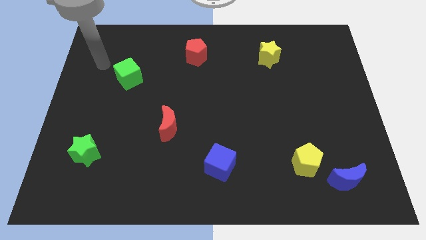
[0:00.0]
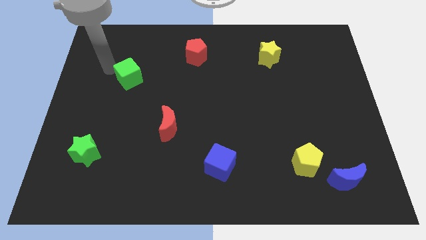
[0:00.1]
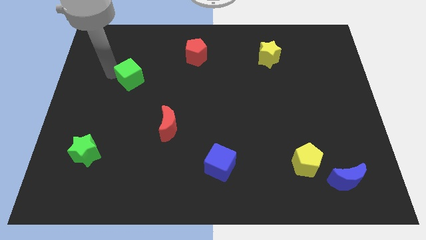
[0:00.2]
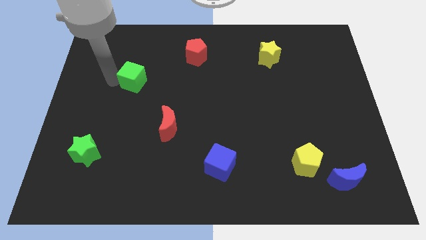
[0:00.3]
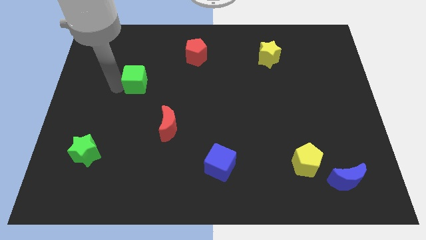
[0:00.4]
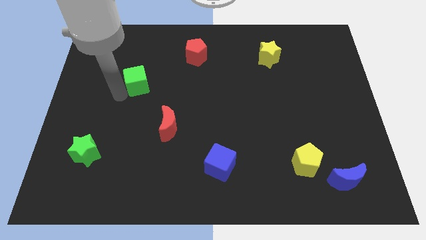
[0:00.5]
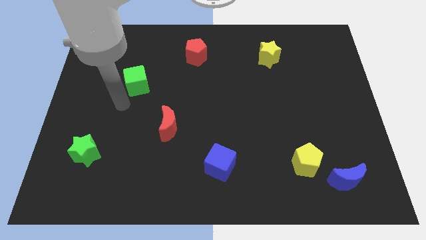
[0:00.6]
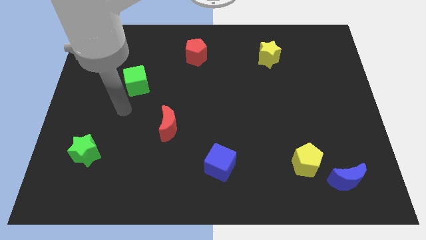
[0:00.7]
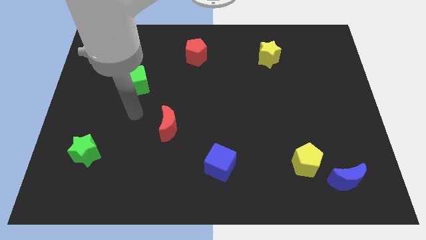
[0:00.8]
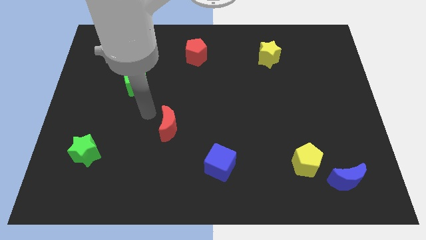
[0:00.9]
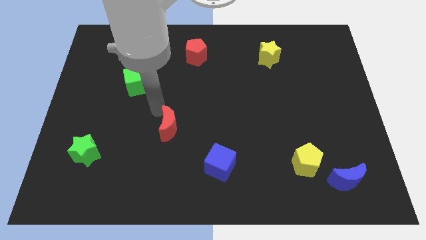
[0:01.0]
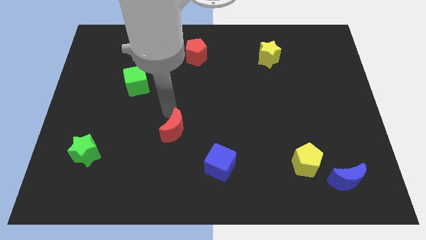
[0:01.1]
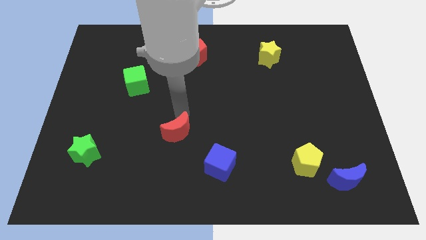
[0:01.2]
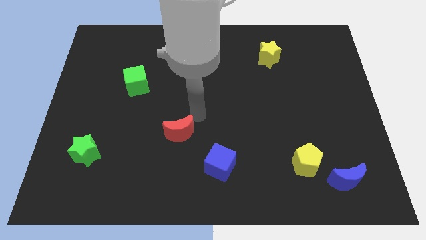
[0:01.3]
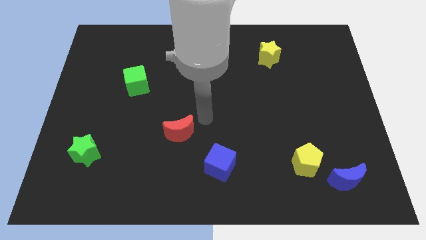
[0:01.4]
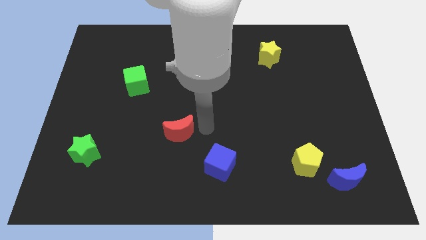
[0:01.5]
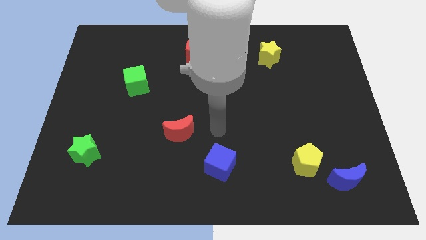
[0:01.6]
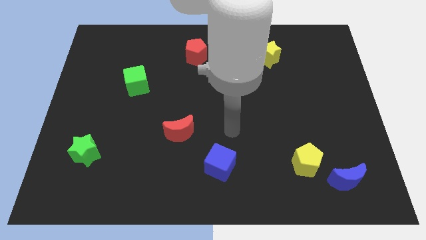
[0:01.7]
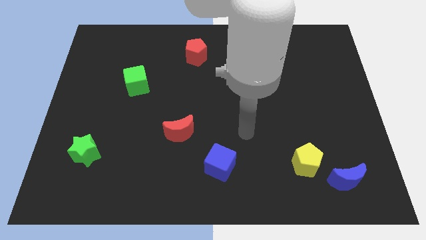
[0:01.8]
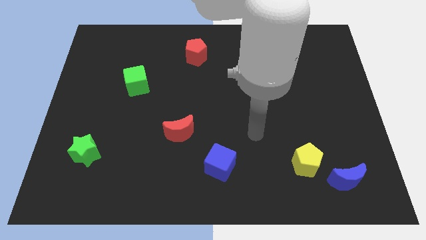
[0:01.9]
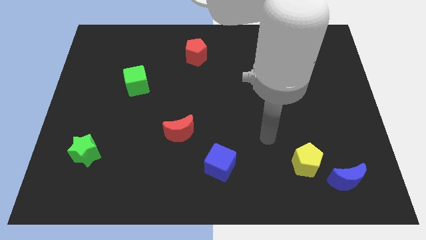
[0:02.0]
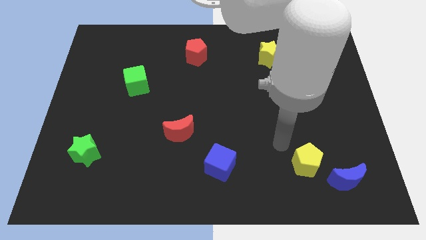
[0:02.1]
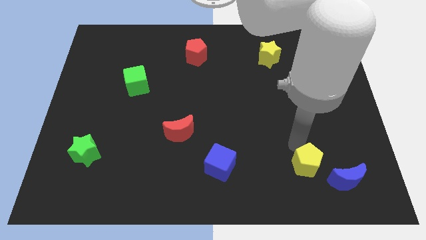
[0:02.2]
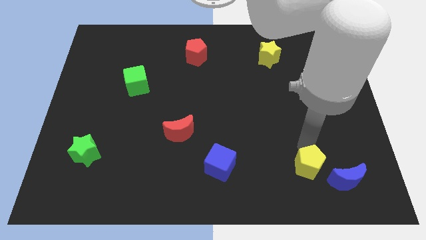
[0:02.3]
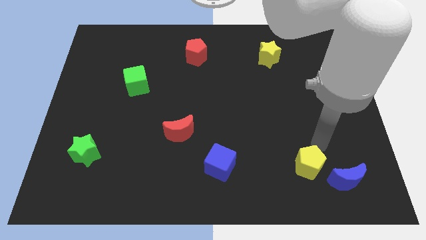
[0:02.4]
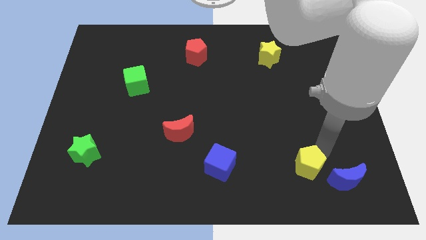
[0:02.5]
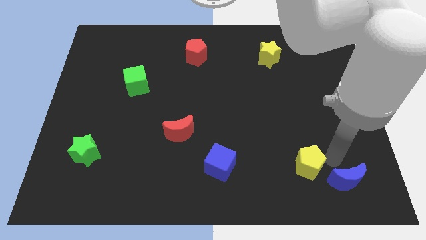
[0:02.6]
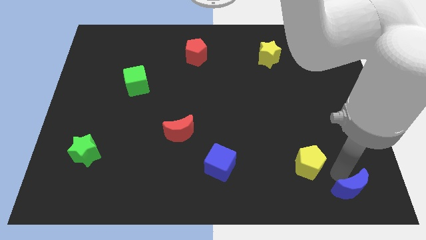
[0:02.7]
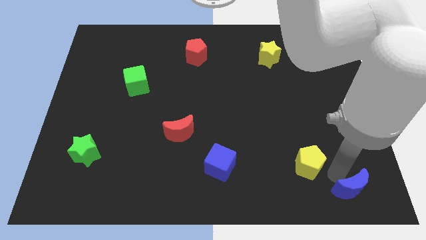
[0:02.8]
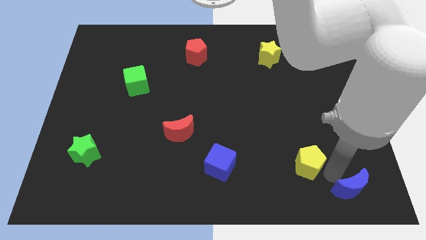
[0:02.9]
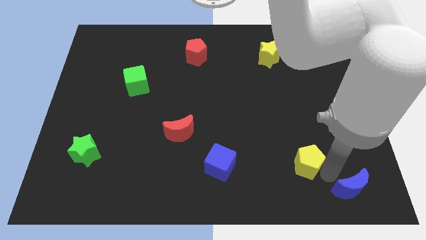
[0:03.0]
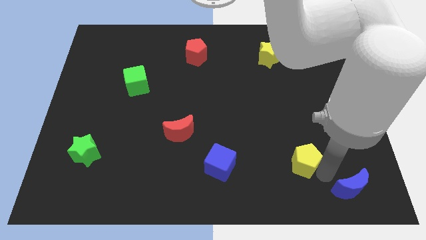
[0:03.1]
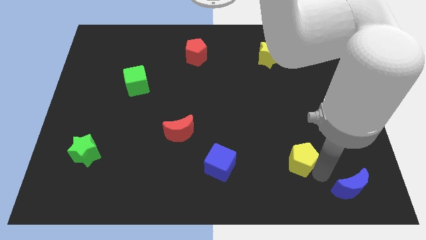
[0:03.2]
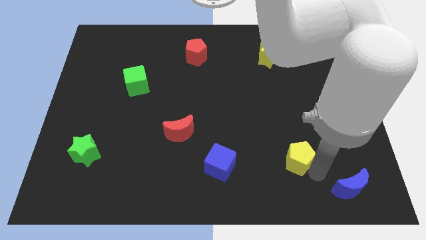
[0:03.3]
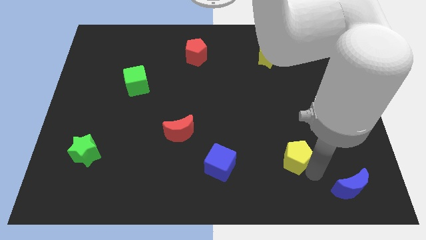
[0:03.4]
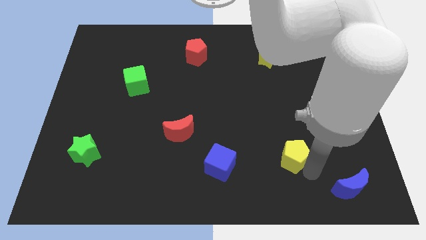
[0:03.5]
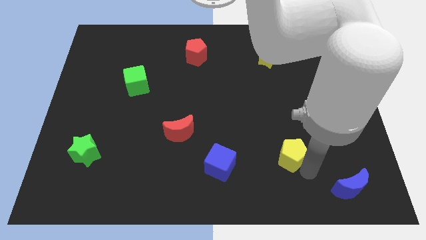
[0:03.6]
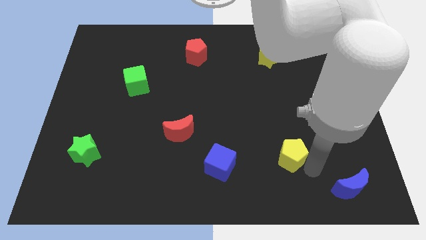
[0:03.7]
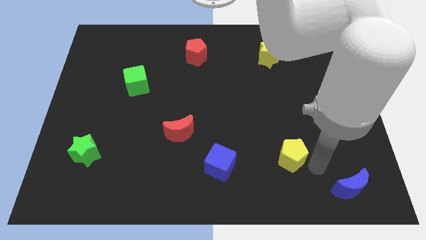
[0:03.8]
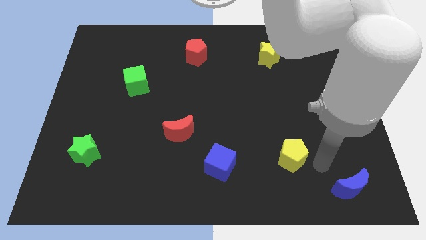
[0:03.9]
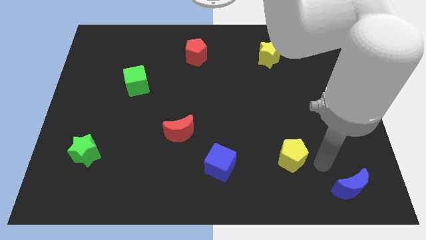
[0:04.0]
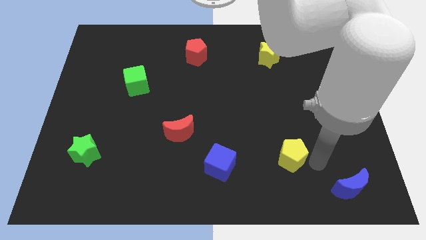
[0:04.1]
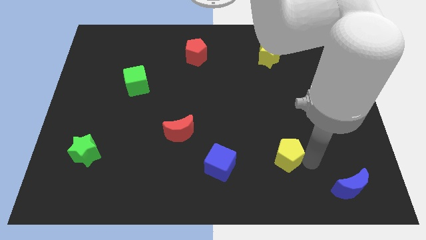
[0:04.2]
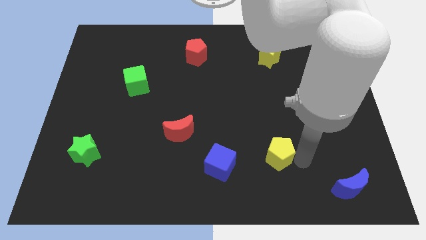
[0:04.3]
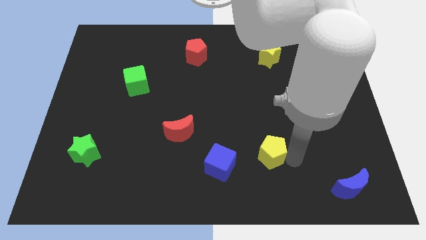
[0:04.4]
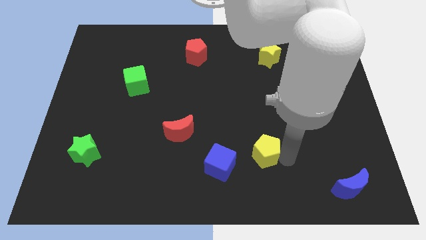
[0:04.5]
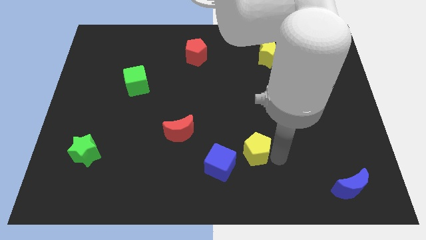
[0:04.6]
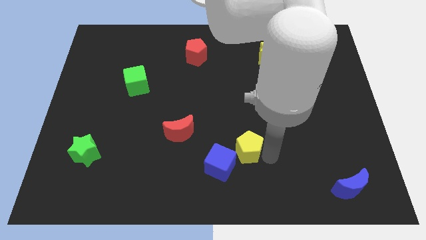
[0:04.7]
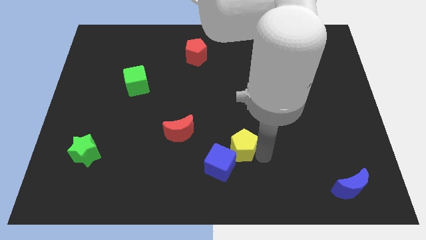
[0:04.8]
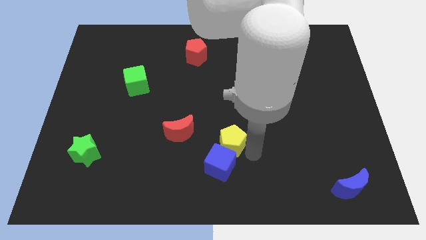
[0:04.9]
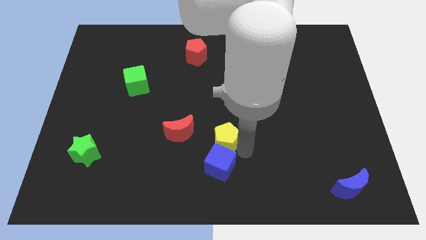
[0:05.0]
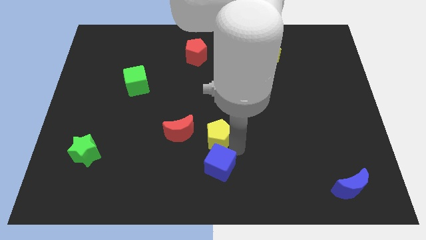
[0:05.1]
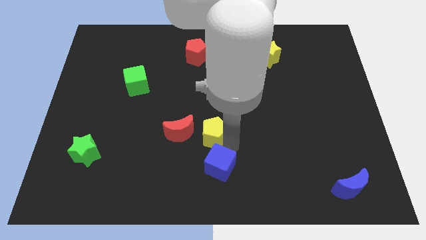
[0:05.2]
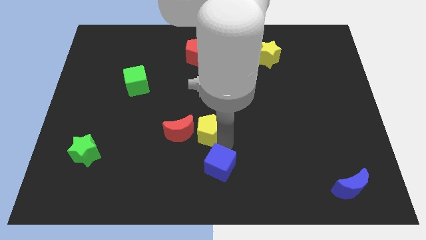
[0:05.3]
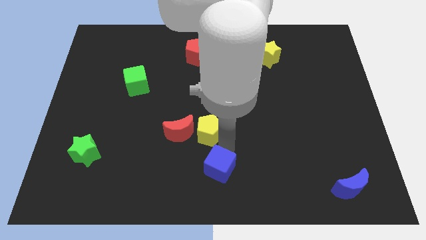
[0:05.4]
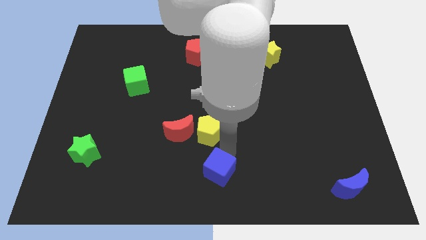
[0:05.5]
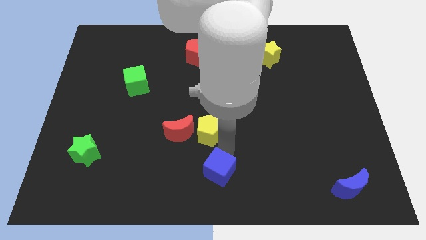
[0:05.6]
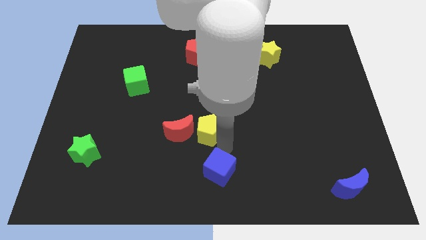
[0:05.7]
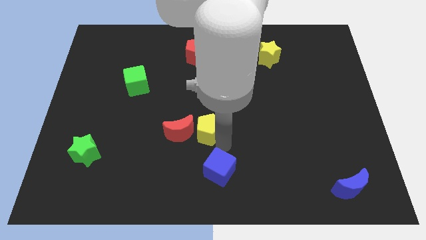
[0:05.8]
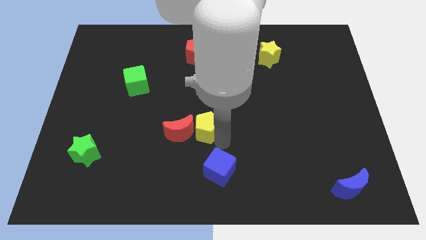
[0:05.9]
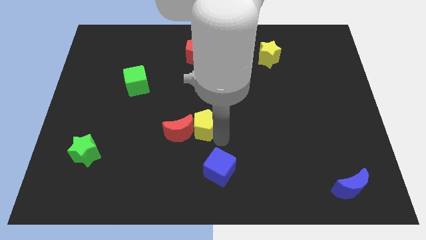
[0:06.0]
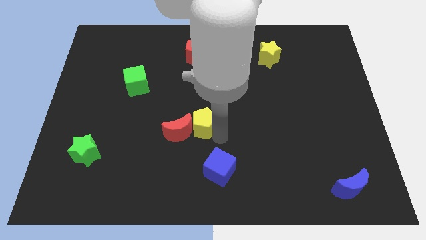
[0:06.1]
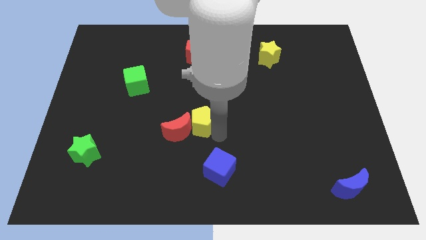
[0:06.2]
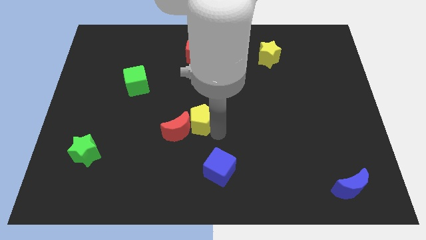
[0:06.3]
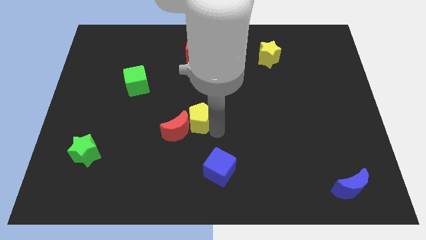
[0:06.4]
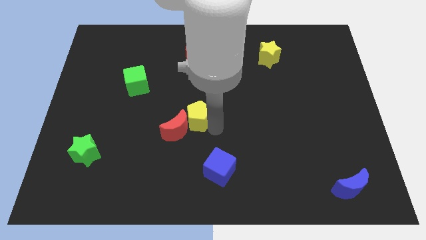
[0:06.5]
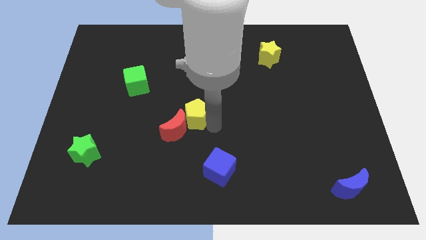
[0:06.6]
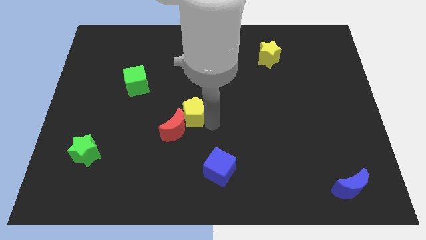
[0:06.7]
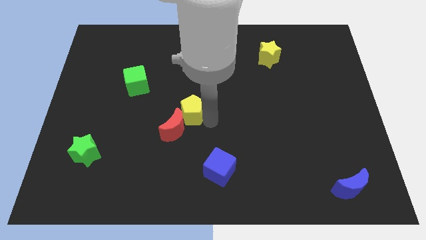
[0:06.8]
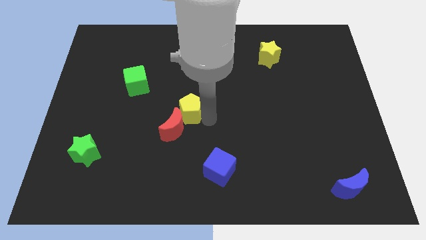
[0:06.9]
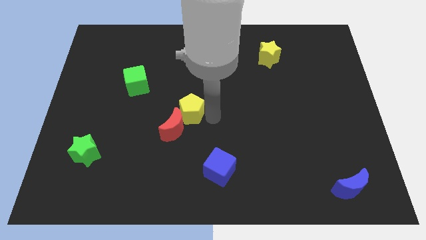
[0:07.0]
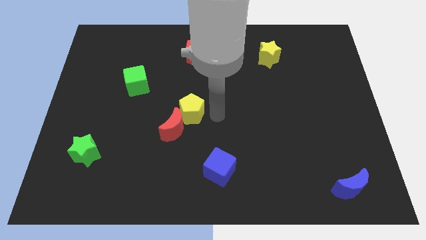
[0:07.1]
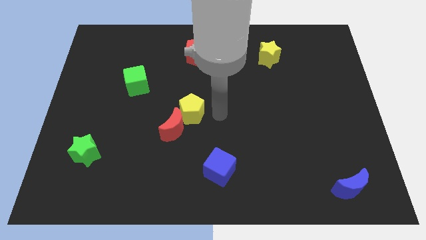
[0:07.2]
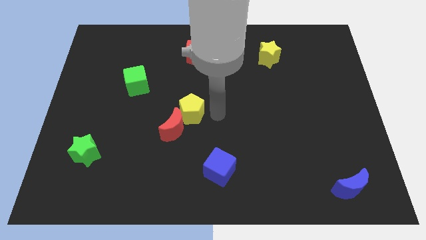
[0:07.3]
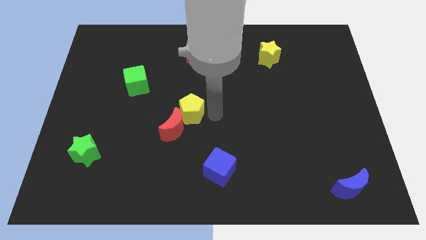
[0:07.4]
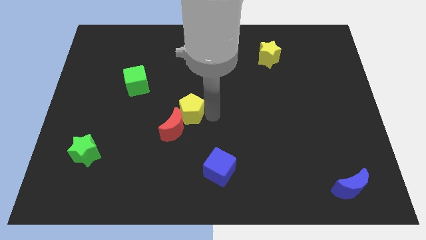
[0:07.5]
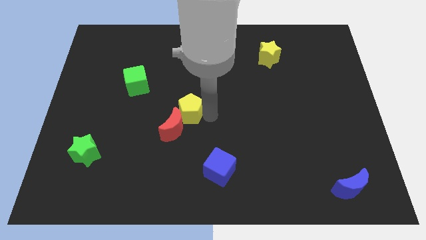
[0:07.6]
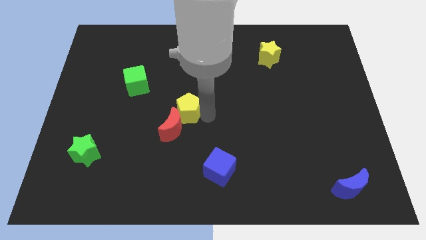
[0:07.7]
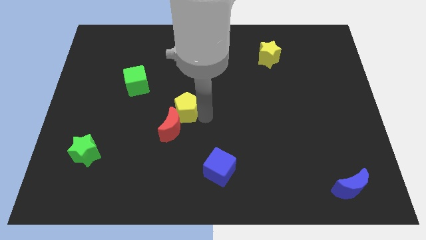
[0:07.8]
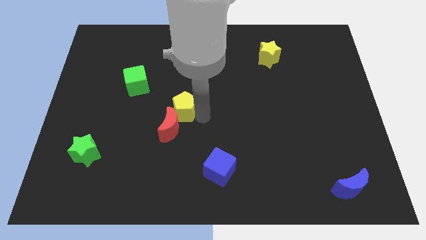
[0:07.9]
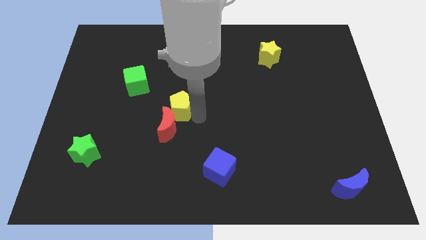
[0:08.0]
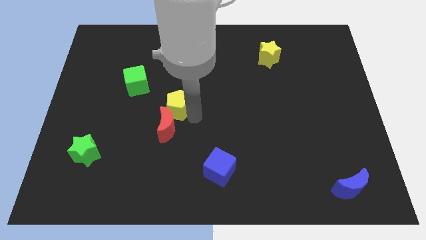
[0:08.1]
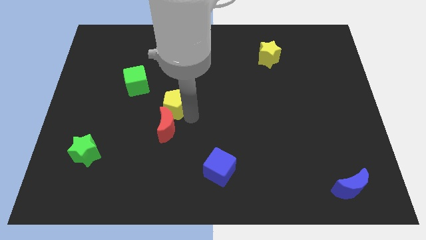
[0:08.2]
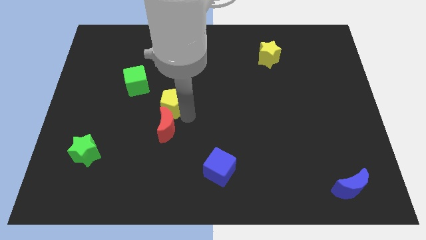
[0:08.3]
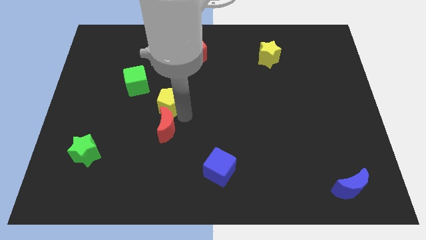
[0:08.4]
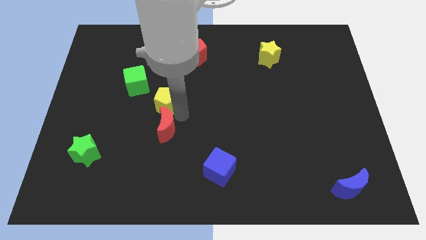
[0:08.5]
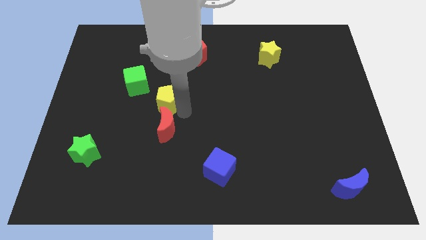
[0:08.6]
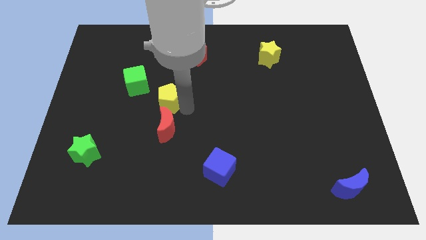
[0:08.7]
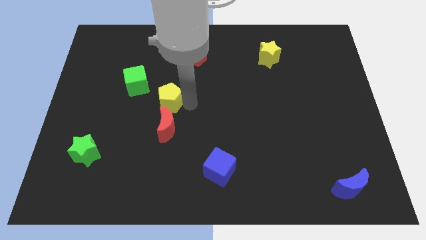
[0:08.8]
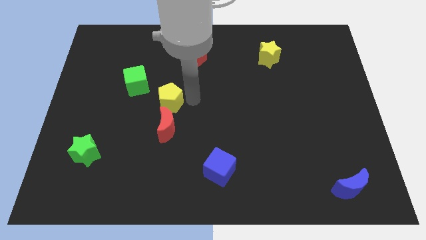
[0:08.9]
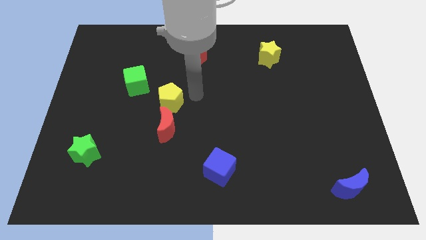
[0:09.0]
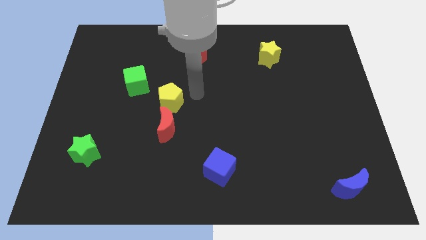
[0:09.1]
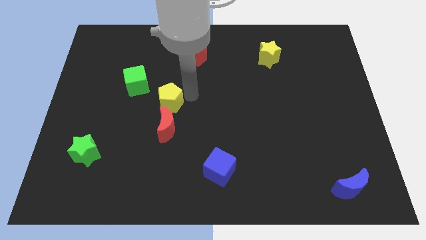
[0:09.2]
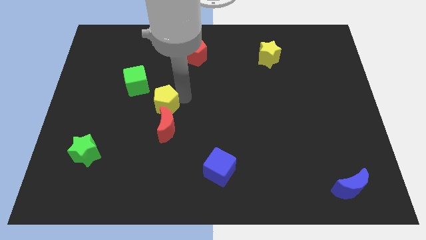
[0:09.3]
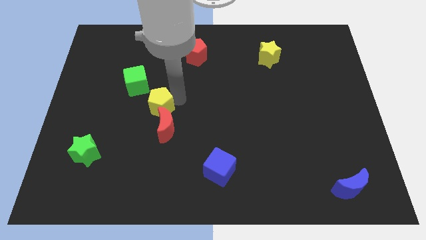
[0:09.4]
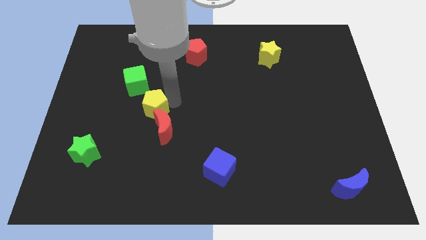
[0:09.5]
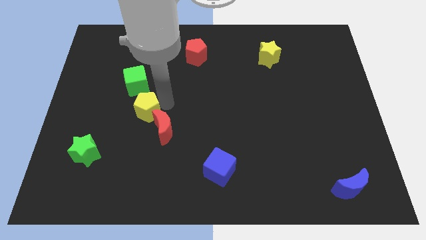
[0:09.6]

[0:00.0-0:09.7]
move the yellow pentagon to the bottom side of the green cube
